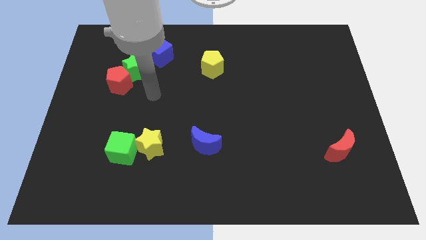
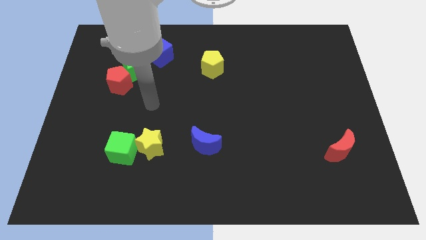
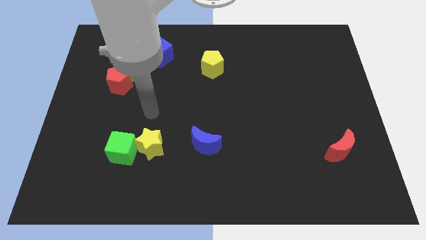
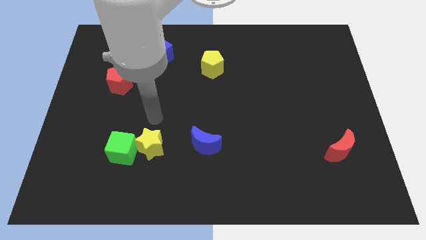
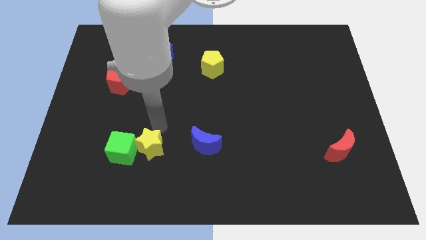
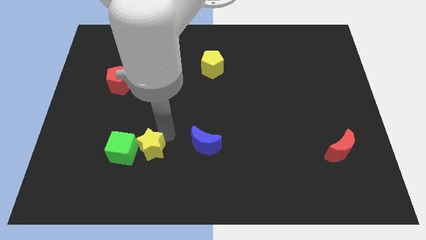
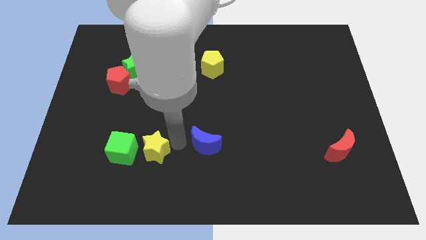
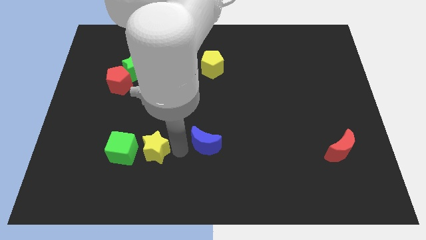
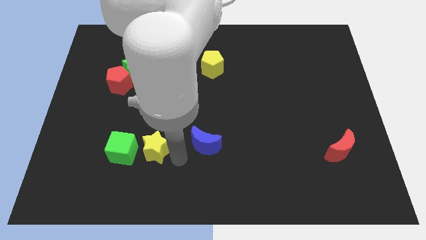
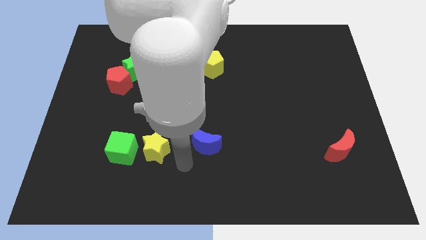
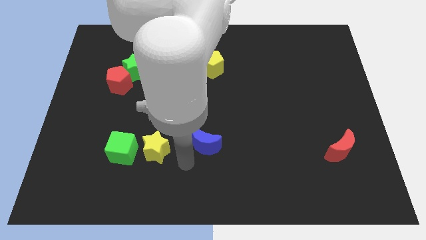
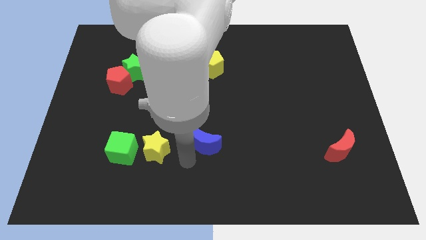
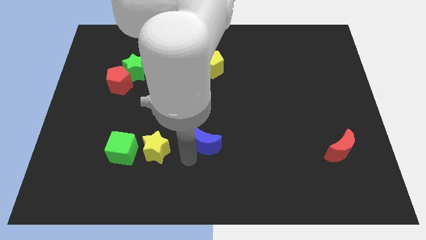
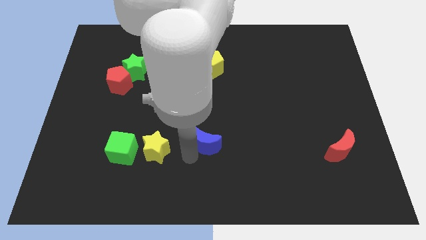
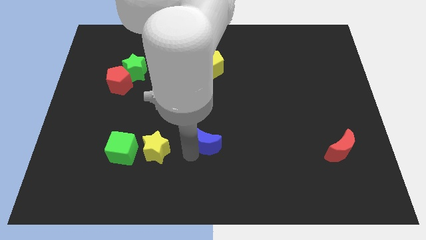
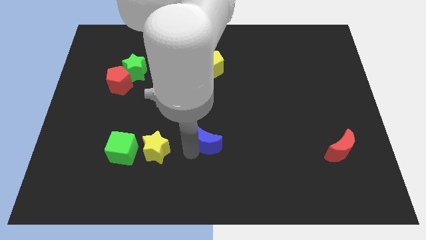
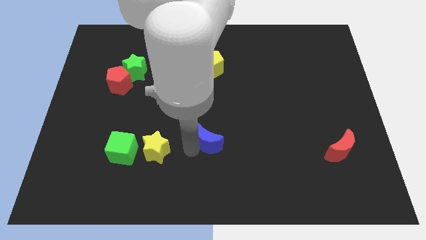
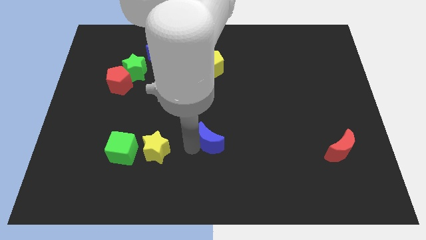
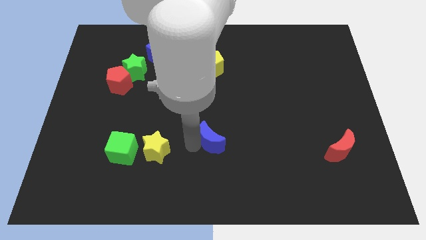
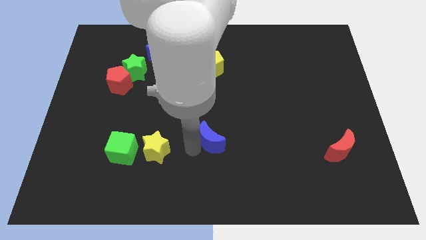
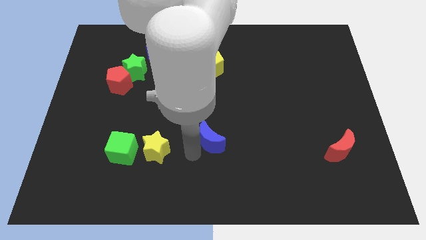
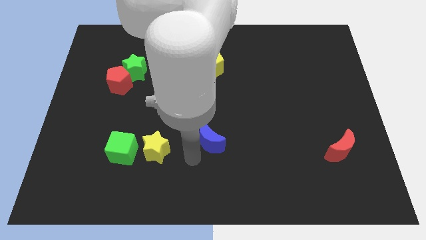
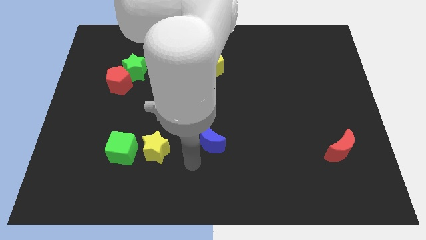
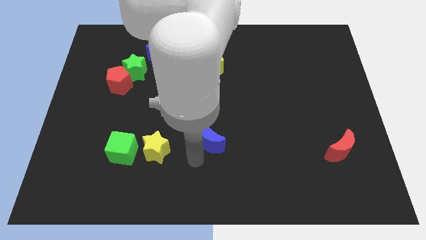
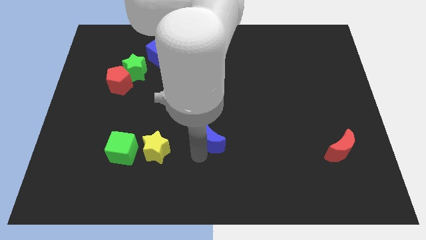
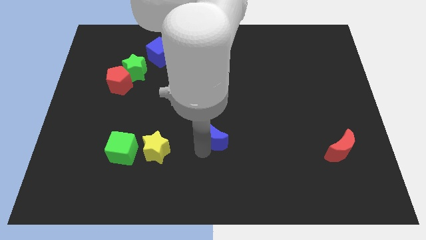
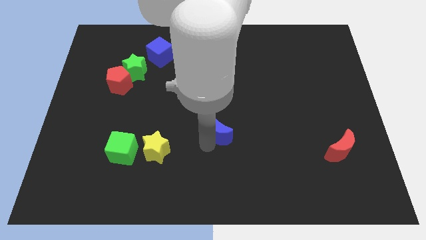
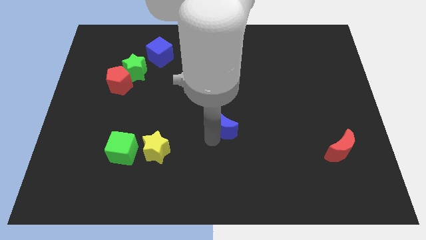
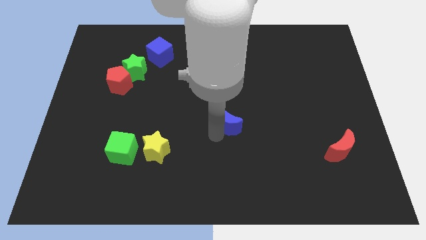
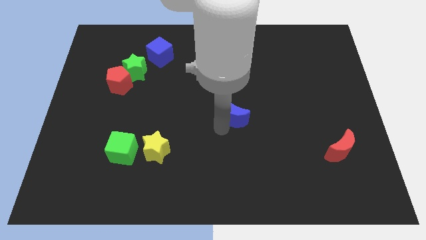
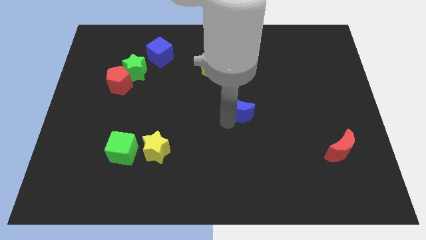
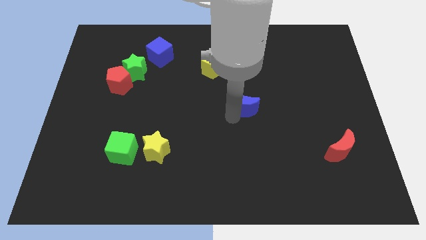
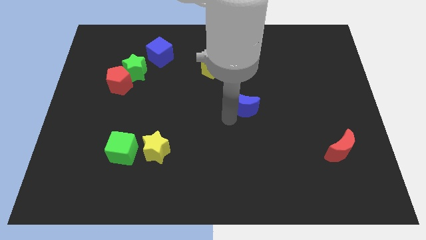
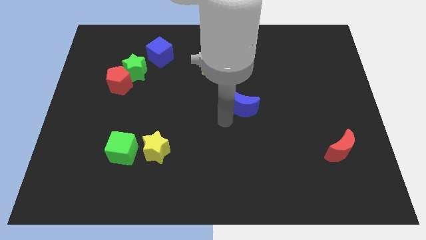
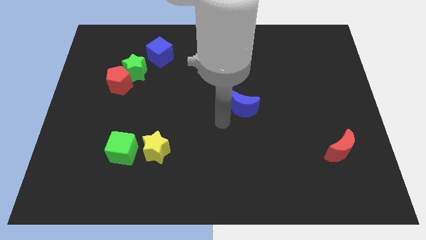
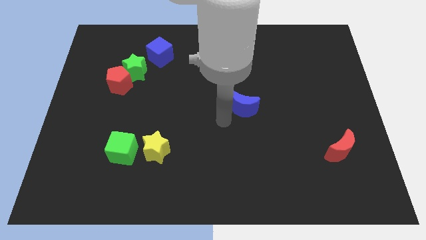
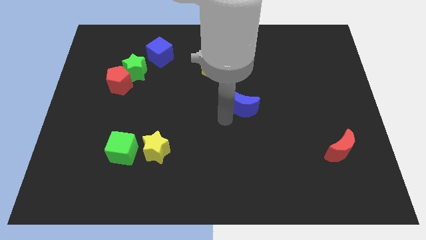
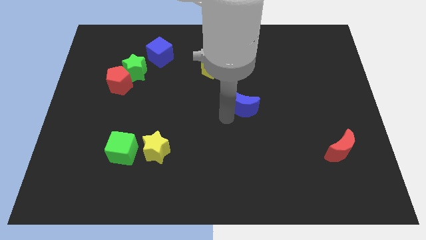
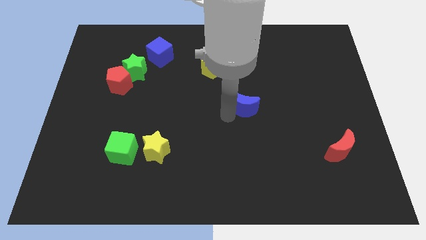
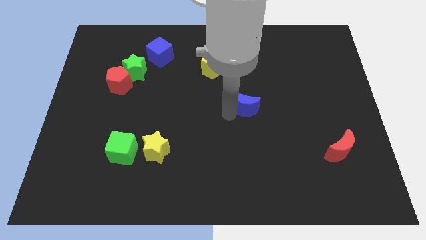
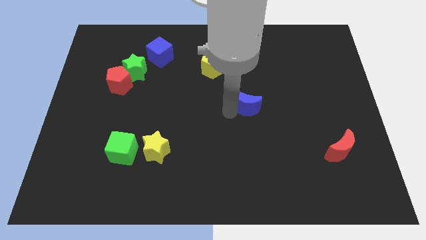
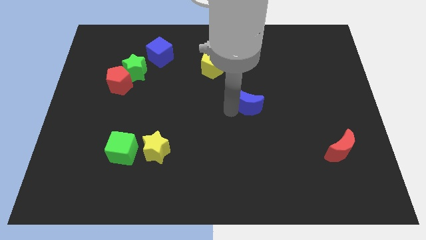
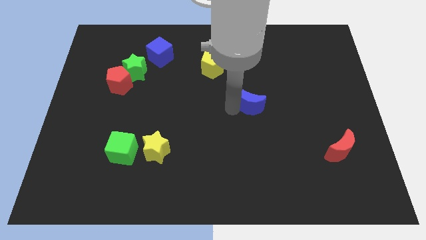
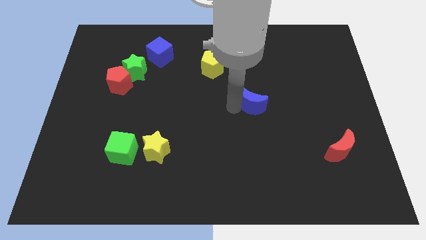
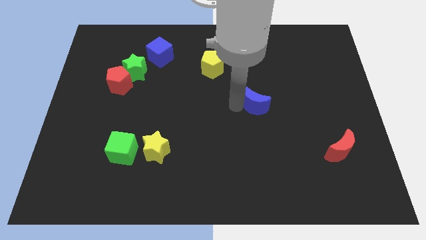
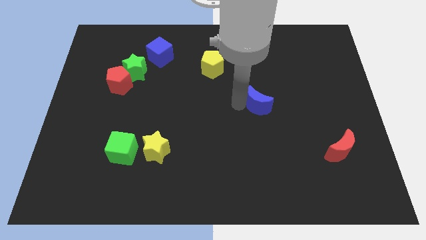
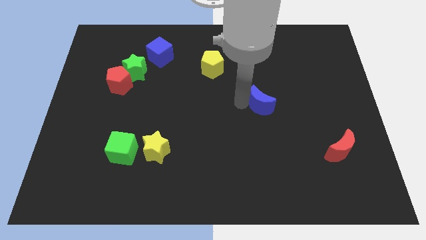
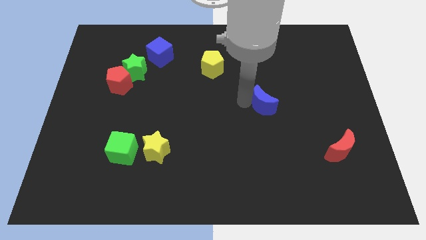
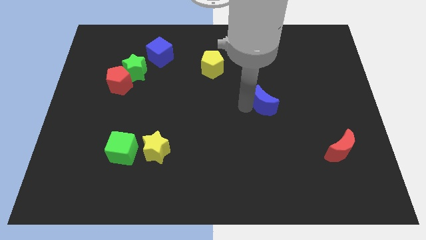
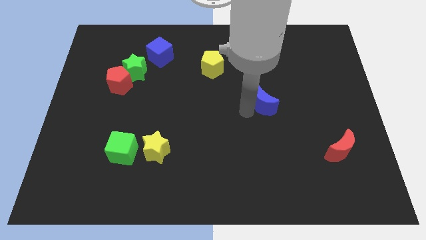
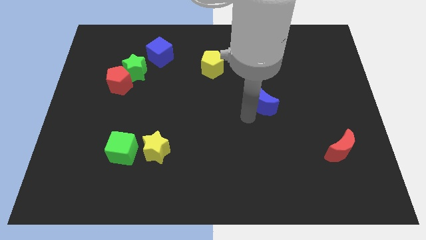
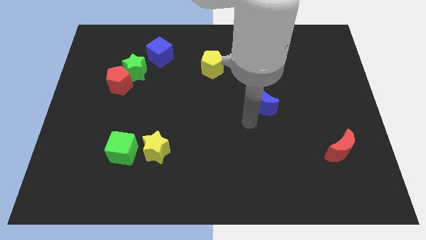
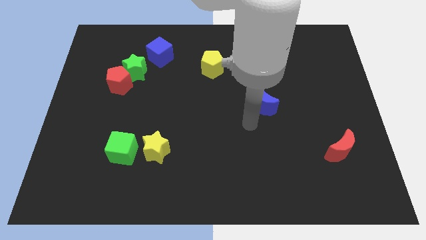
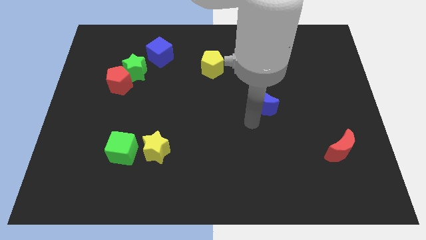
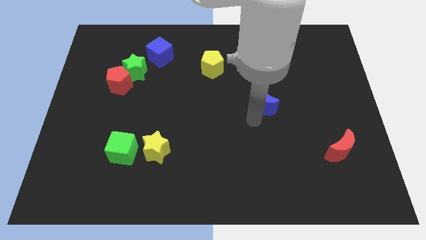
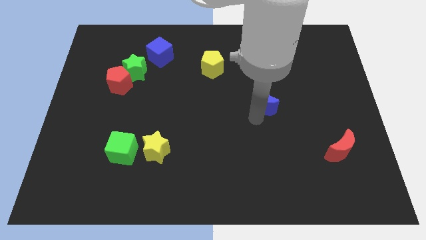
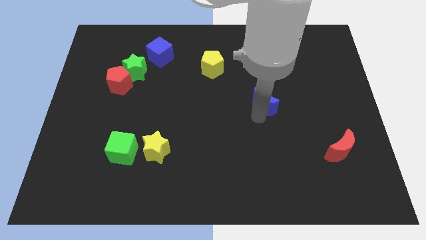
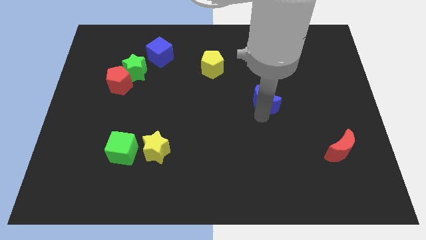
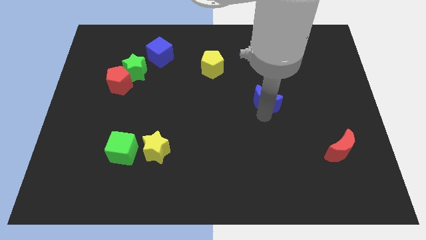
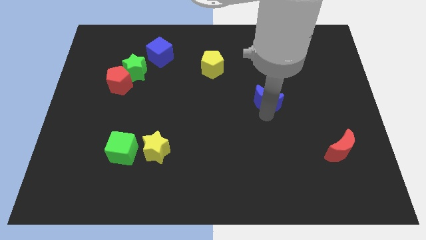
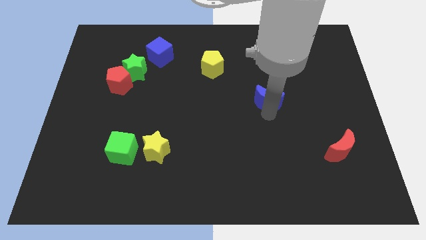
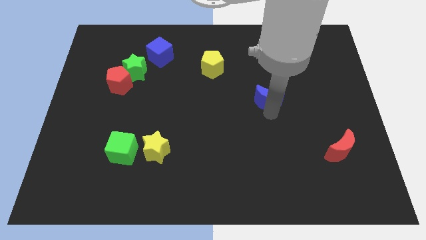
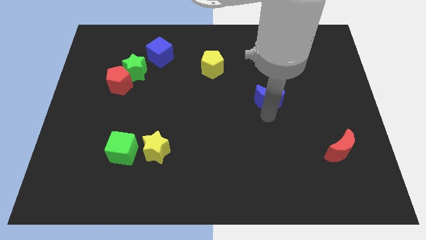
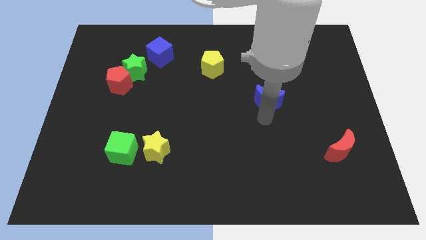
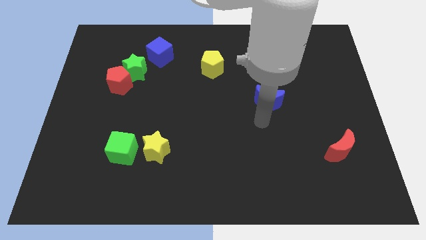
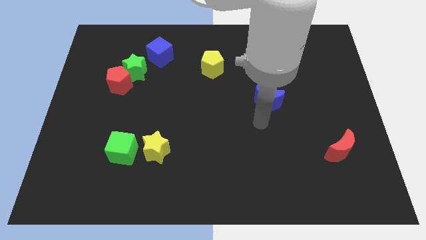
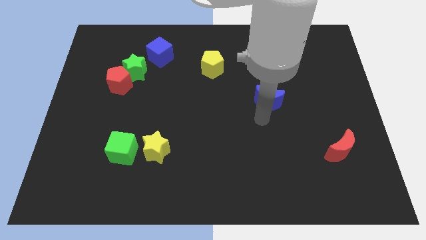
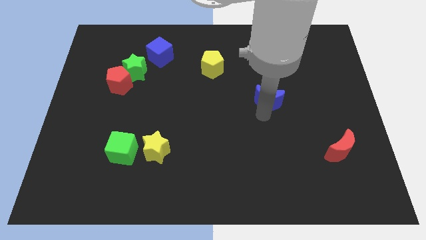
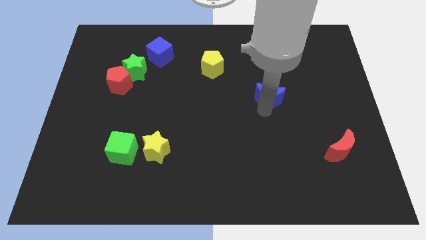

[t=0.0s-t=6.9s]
move the blue moon upwards and to the right diagonally

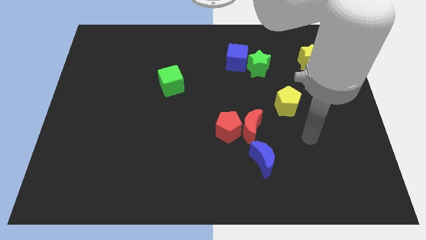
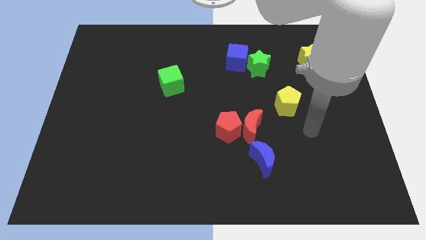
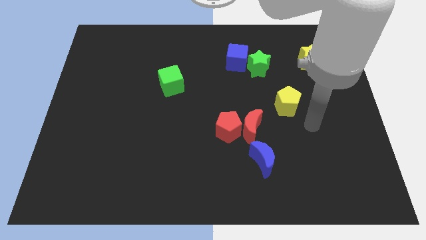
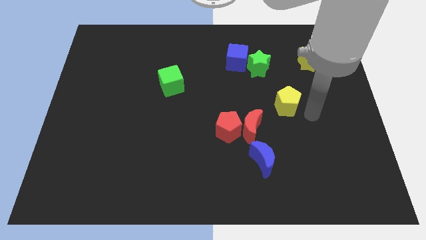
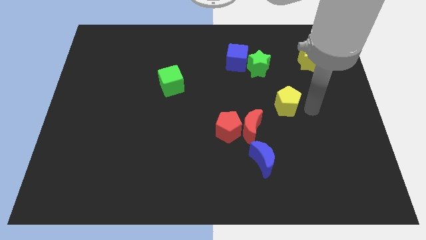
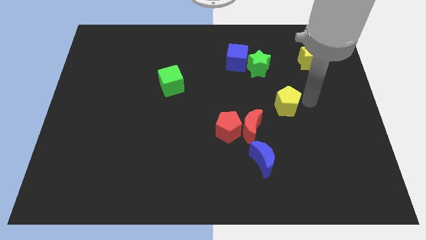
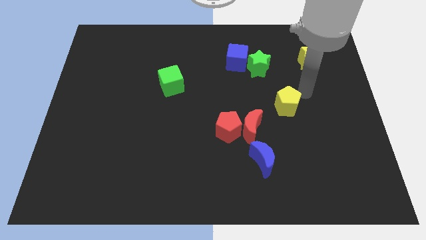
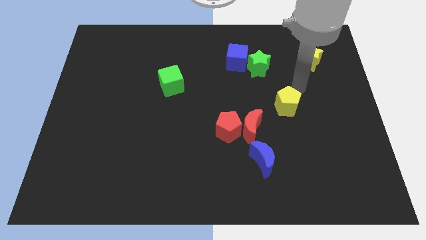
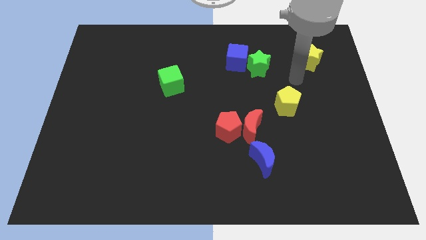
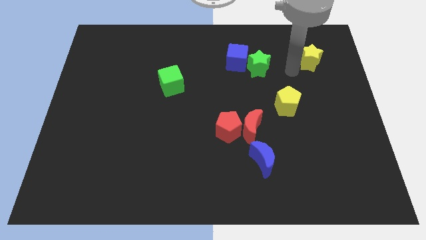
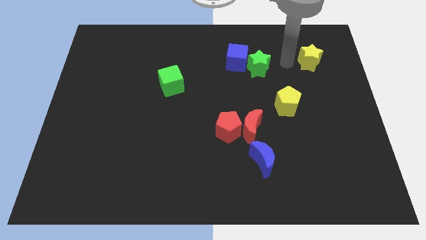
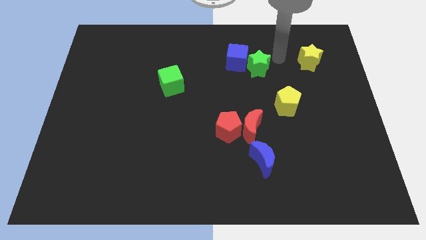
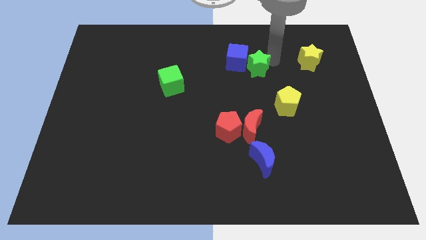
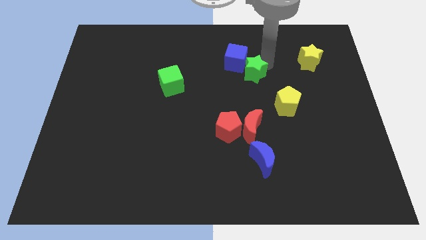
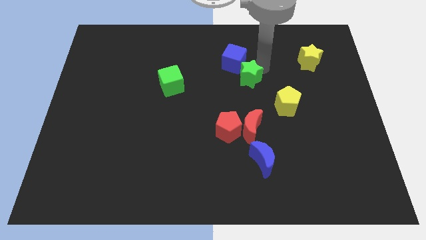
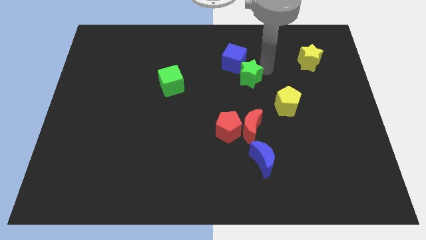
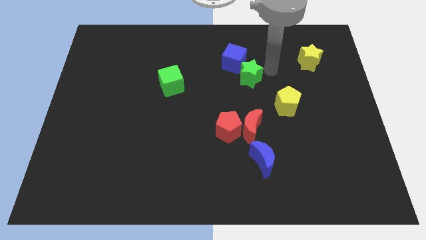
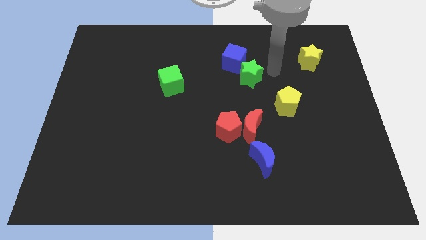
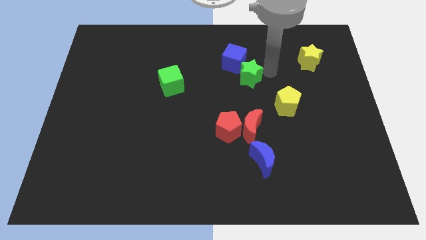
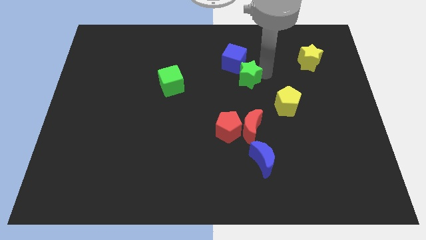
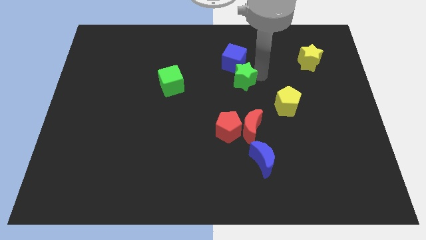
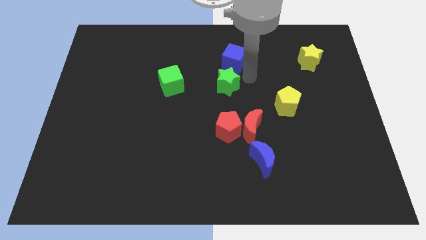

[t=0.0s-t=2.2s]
push the green star downwards and to the left diagonally slightly
